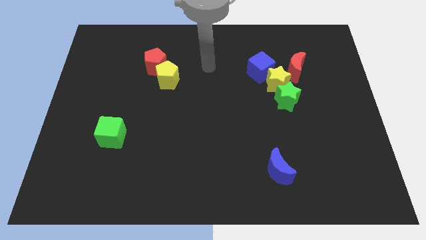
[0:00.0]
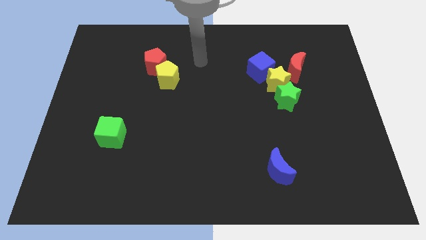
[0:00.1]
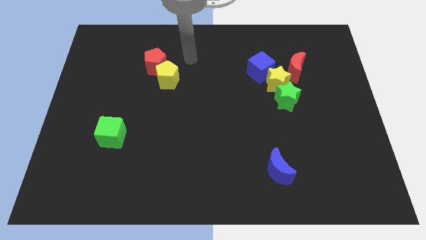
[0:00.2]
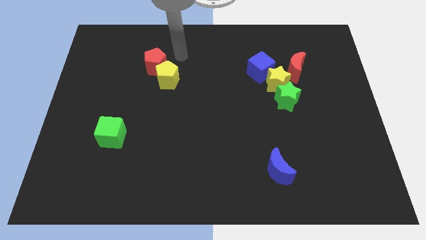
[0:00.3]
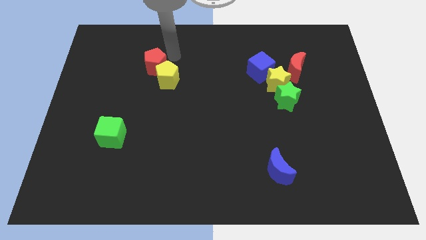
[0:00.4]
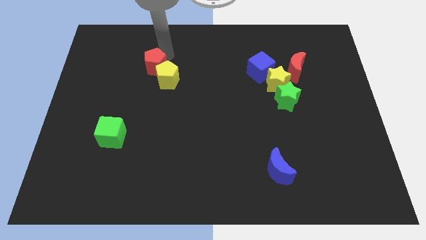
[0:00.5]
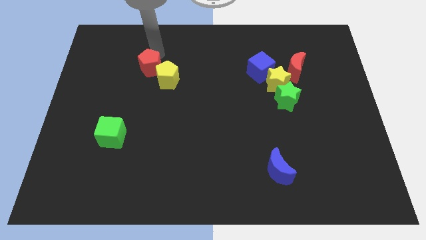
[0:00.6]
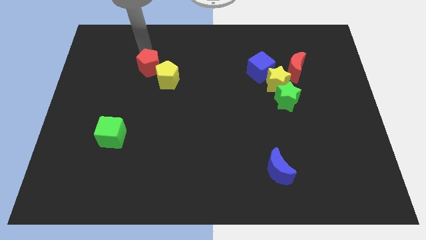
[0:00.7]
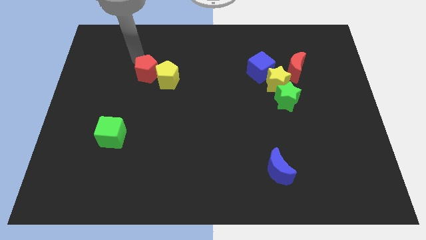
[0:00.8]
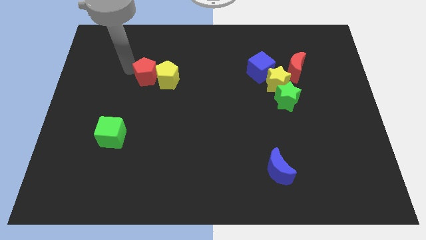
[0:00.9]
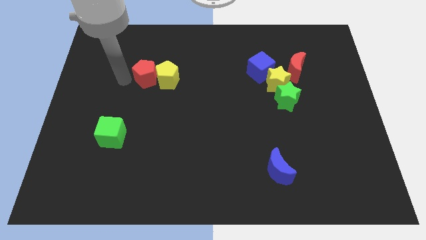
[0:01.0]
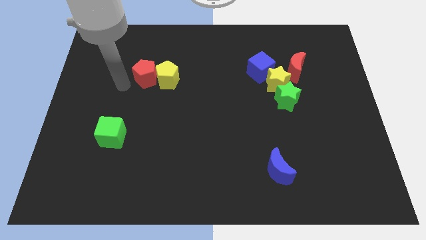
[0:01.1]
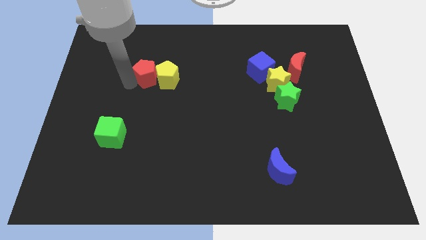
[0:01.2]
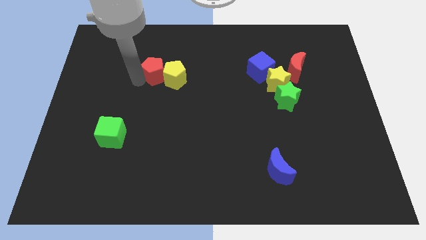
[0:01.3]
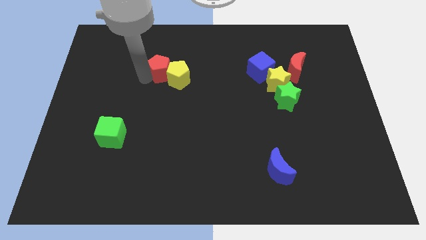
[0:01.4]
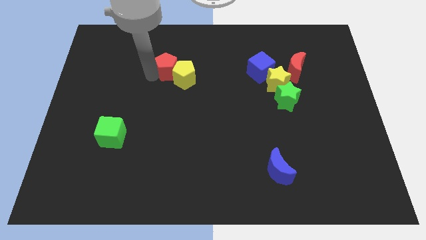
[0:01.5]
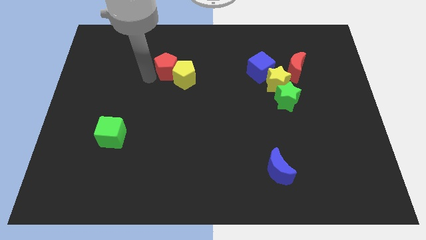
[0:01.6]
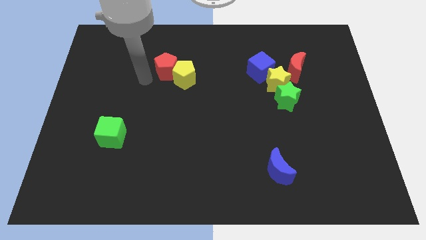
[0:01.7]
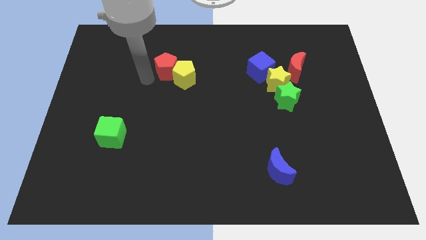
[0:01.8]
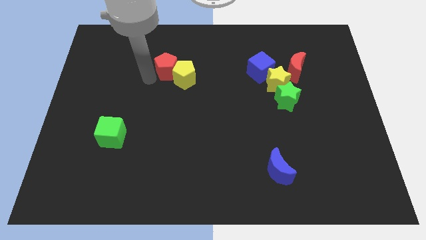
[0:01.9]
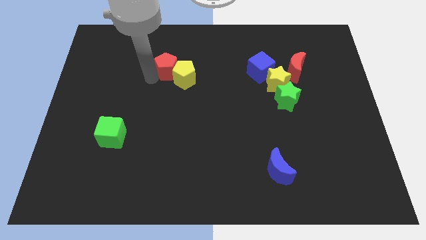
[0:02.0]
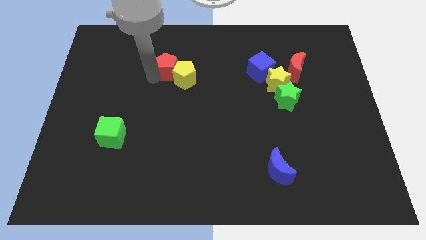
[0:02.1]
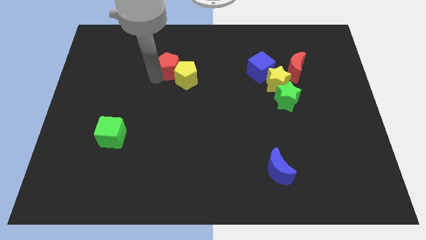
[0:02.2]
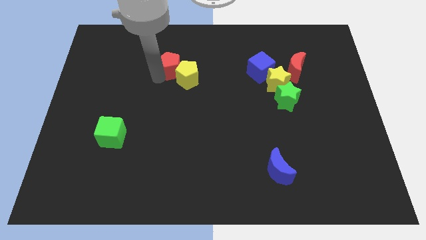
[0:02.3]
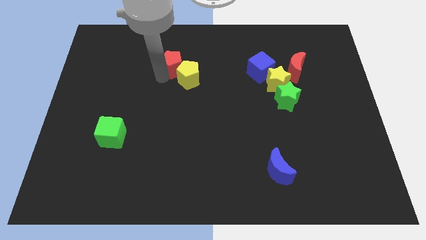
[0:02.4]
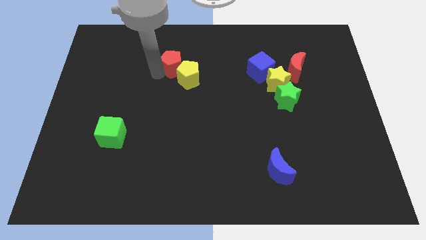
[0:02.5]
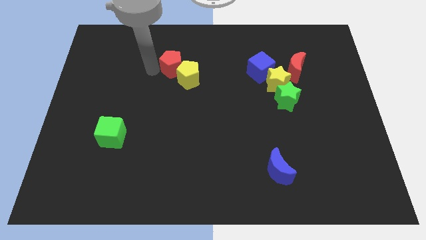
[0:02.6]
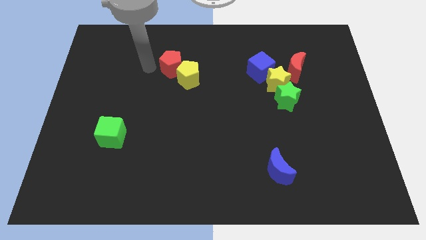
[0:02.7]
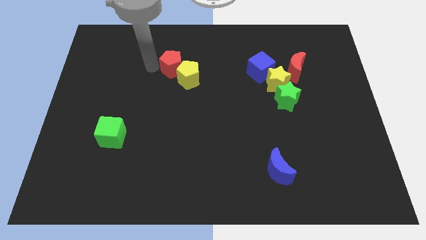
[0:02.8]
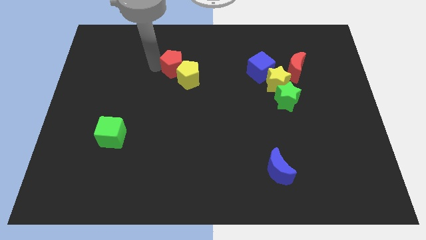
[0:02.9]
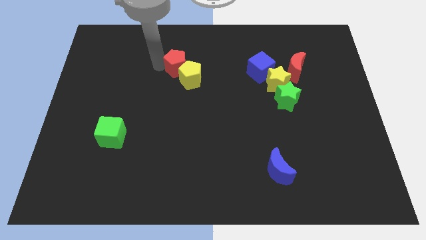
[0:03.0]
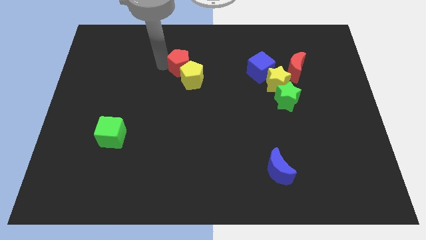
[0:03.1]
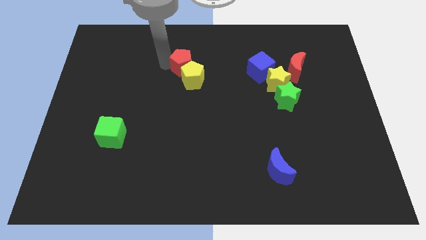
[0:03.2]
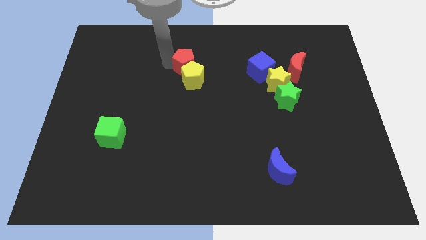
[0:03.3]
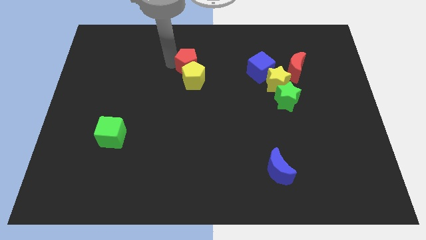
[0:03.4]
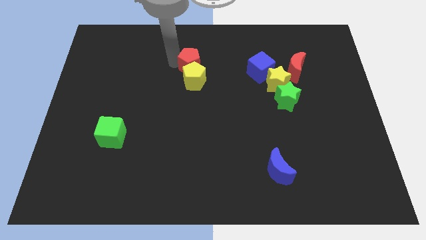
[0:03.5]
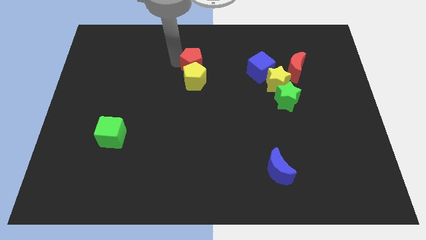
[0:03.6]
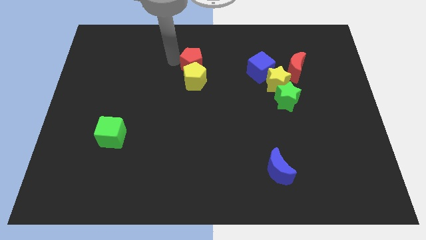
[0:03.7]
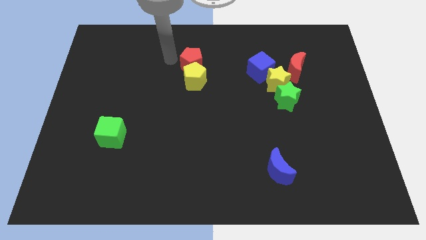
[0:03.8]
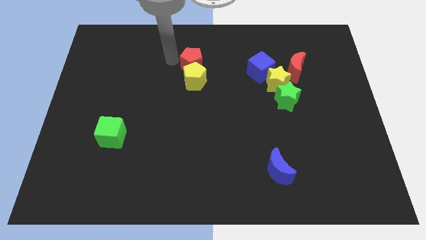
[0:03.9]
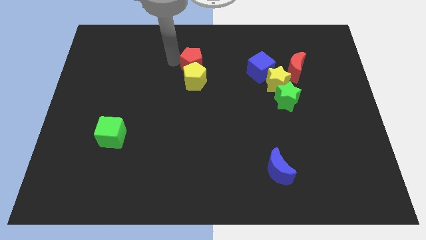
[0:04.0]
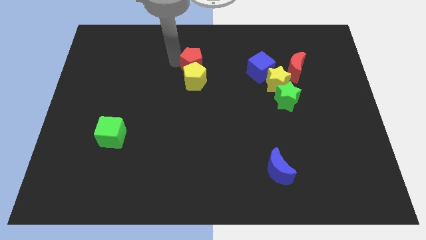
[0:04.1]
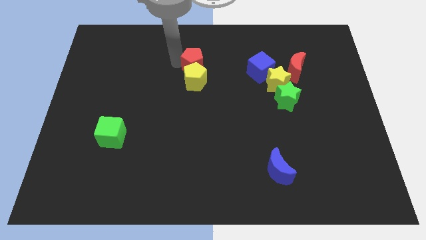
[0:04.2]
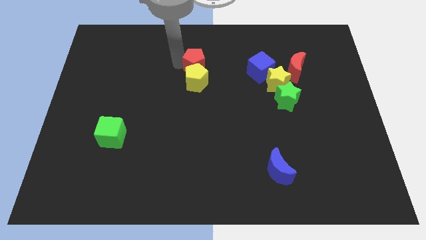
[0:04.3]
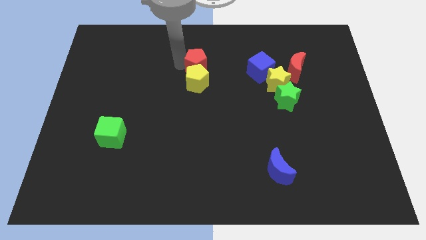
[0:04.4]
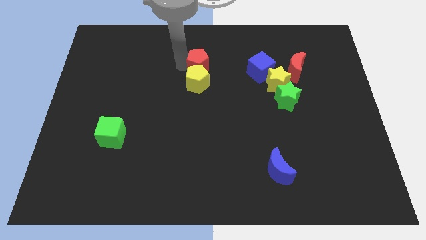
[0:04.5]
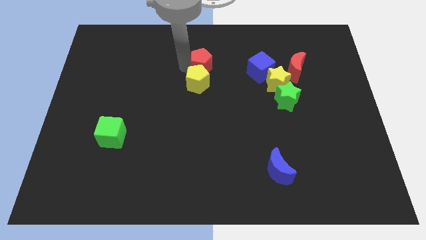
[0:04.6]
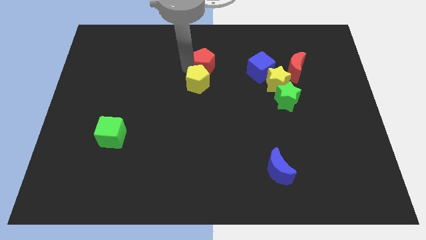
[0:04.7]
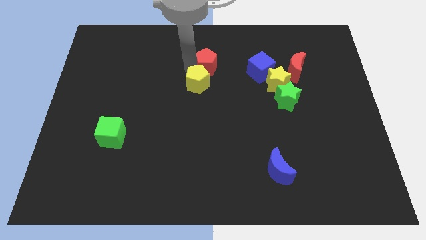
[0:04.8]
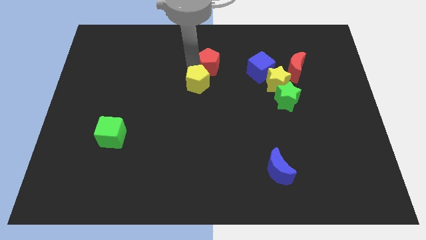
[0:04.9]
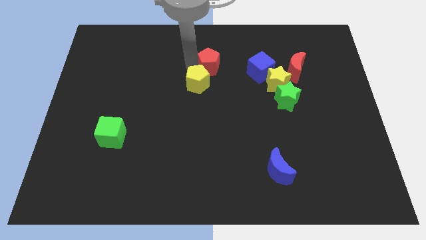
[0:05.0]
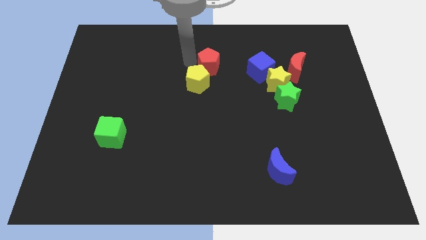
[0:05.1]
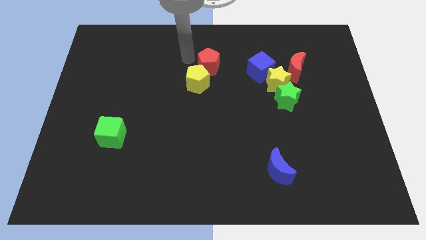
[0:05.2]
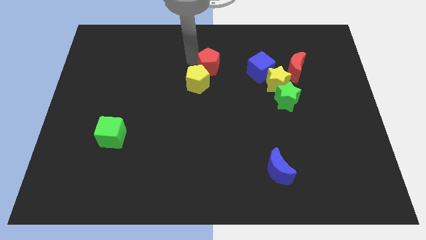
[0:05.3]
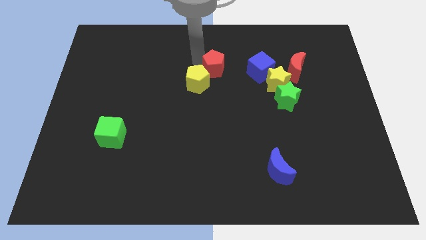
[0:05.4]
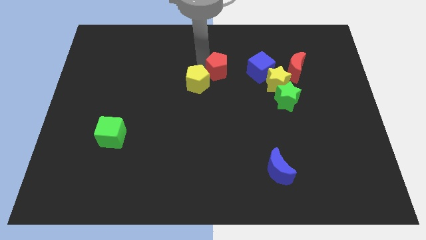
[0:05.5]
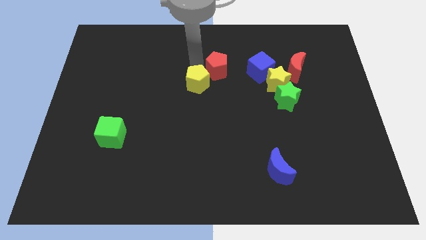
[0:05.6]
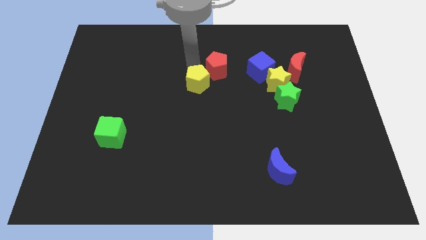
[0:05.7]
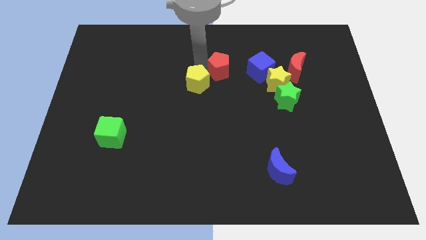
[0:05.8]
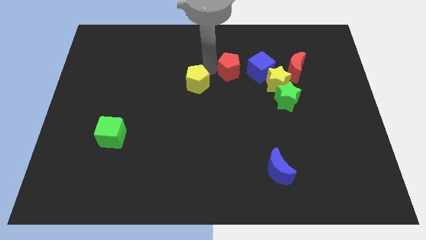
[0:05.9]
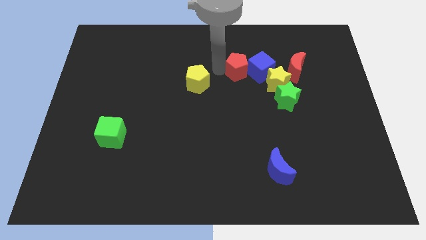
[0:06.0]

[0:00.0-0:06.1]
slide the red pentagon to the blue cube

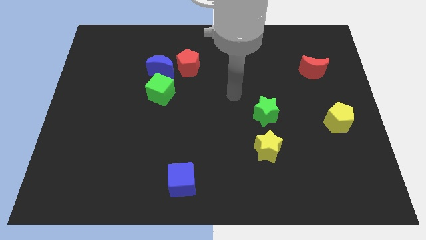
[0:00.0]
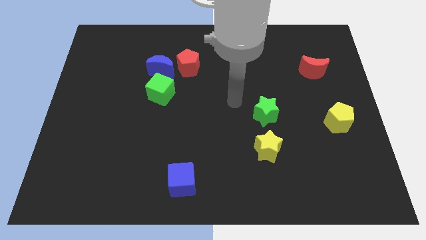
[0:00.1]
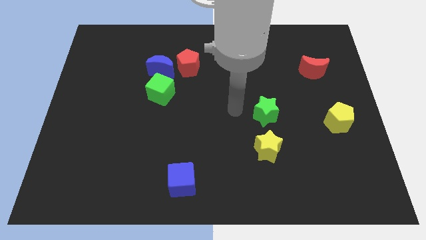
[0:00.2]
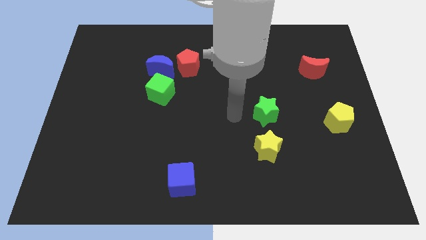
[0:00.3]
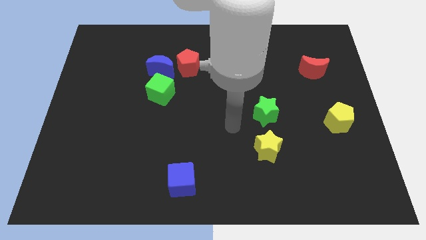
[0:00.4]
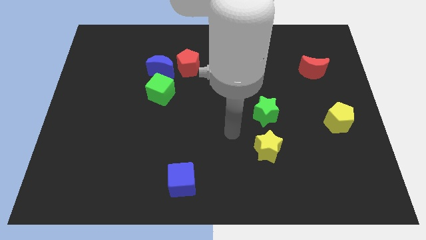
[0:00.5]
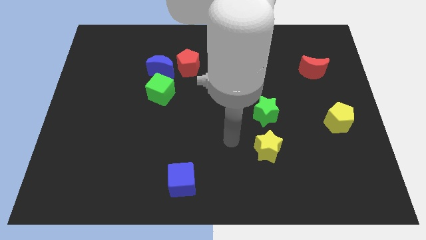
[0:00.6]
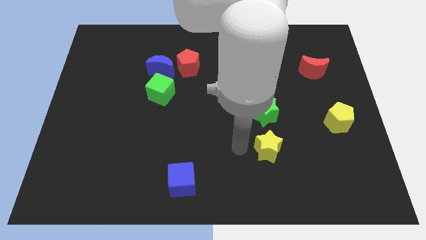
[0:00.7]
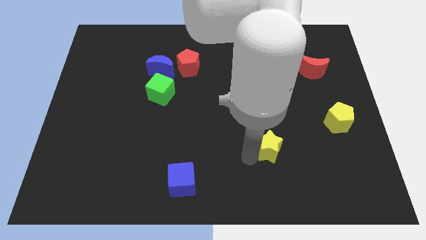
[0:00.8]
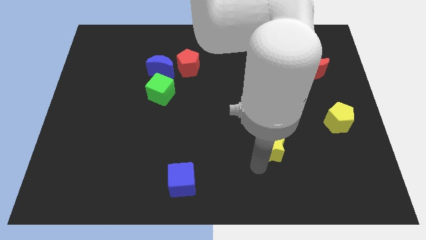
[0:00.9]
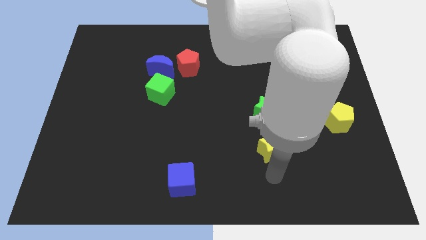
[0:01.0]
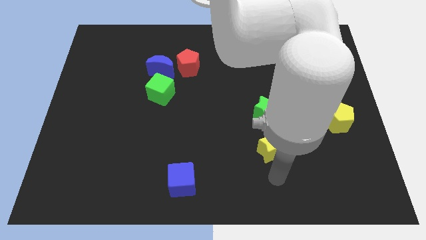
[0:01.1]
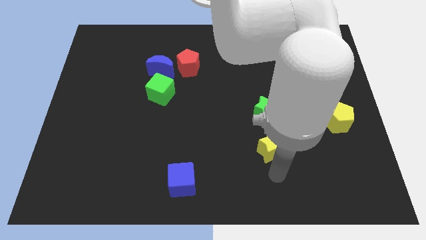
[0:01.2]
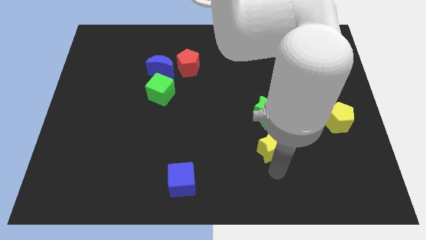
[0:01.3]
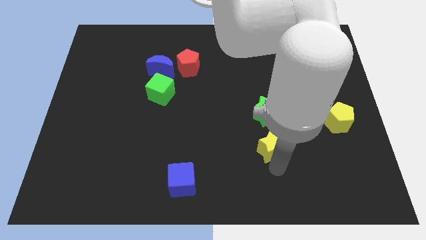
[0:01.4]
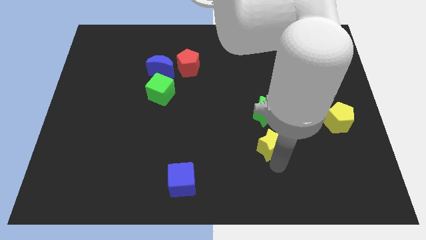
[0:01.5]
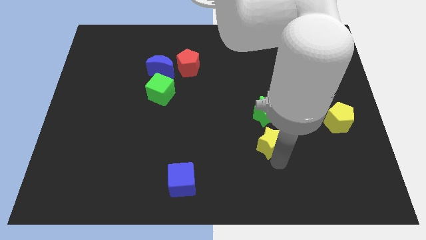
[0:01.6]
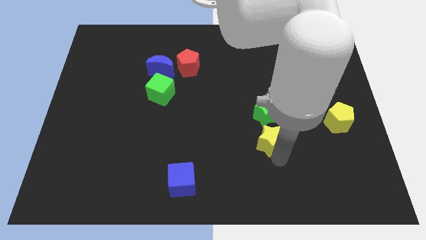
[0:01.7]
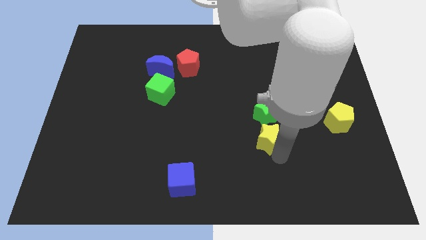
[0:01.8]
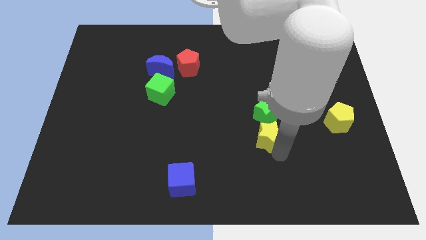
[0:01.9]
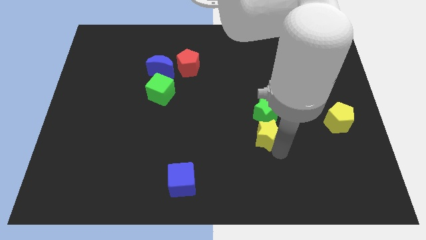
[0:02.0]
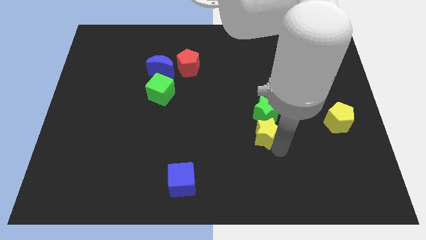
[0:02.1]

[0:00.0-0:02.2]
put the yellow star to the green star
